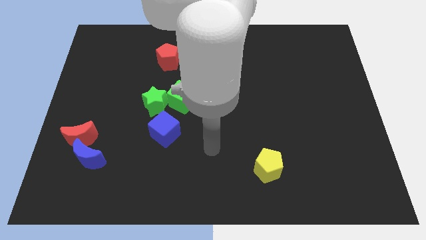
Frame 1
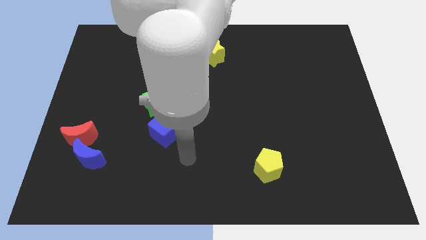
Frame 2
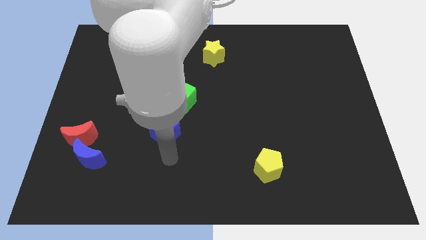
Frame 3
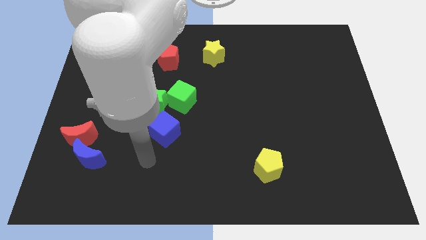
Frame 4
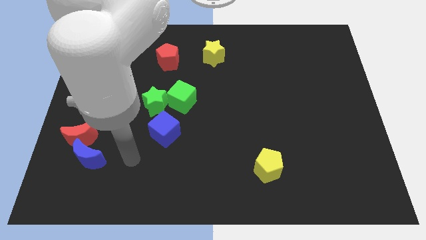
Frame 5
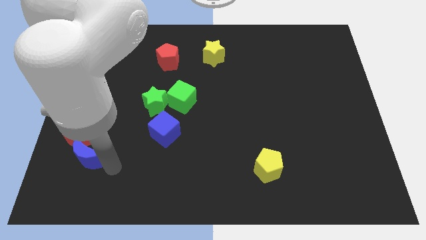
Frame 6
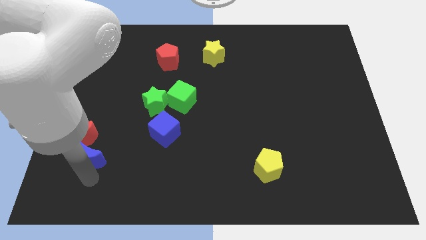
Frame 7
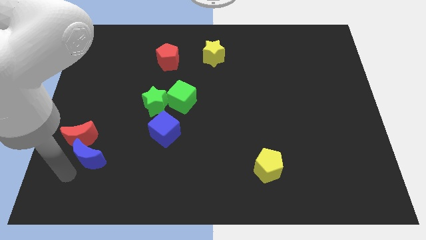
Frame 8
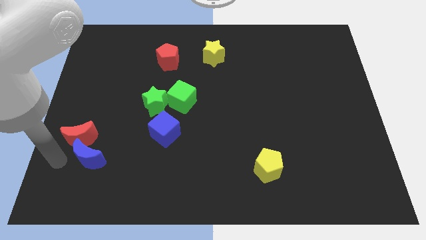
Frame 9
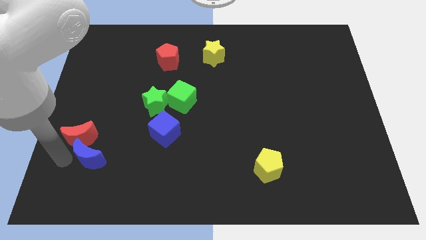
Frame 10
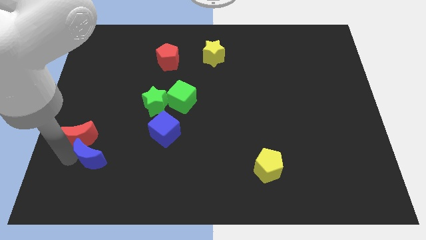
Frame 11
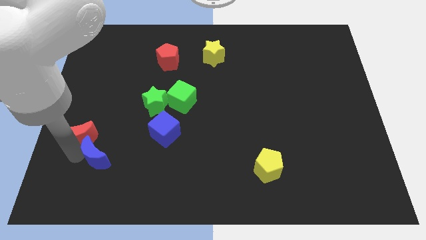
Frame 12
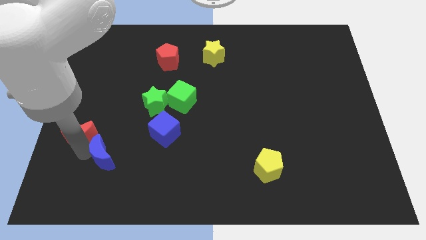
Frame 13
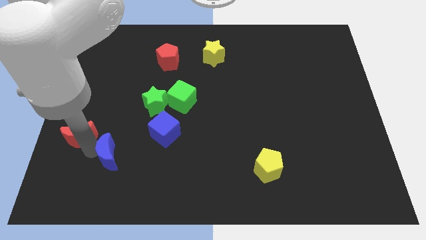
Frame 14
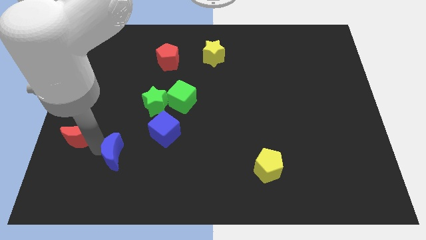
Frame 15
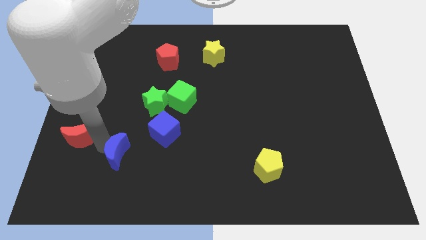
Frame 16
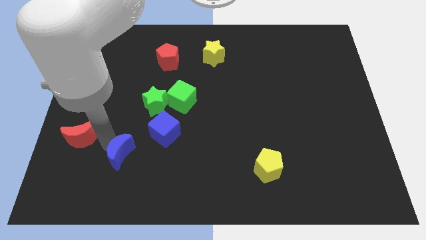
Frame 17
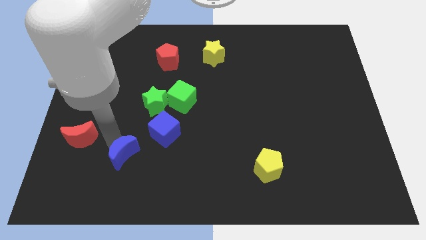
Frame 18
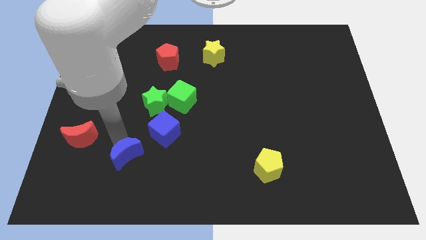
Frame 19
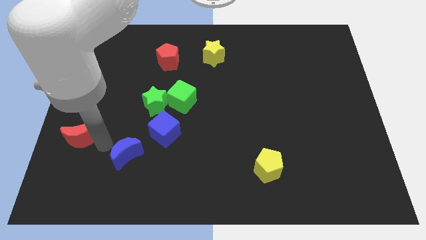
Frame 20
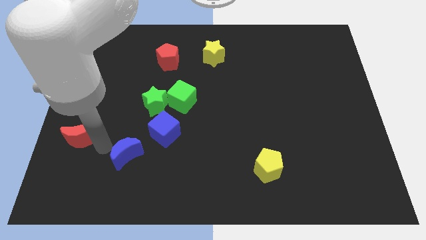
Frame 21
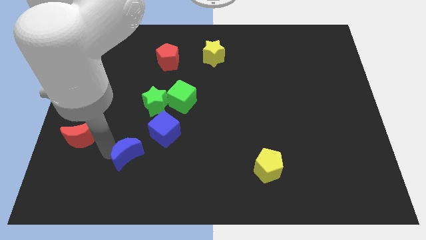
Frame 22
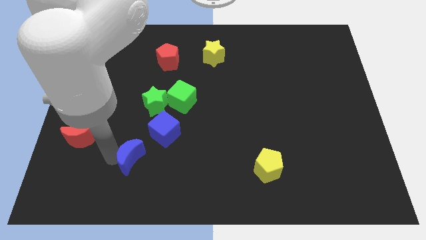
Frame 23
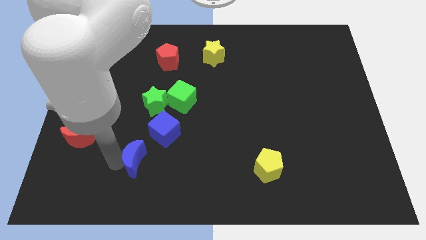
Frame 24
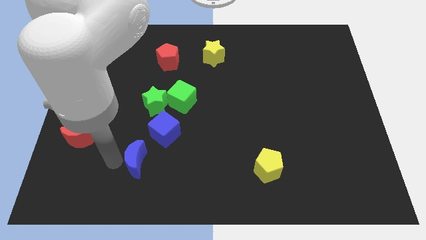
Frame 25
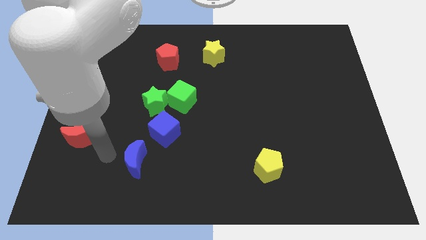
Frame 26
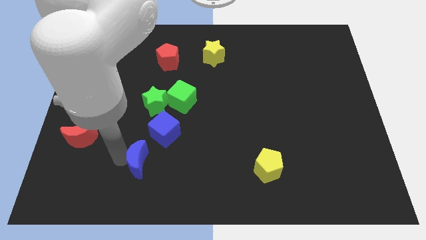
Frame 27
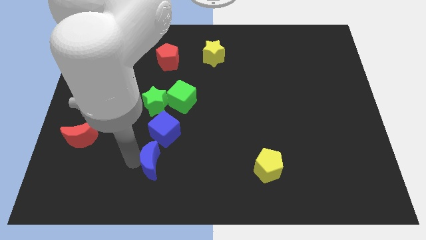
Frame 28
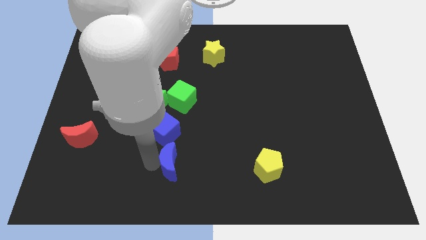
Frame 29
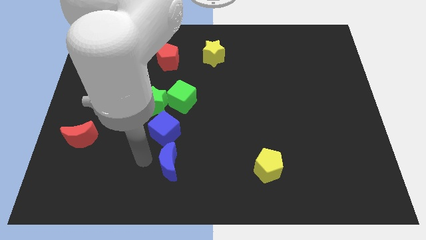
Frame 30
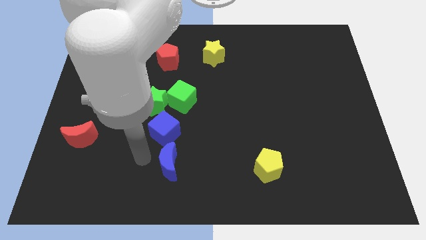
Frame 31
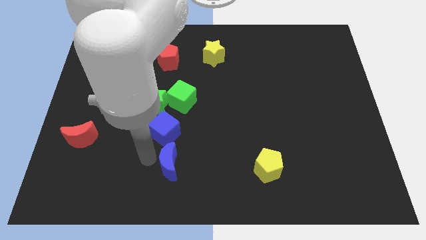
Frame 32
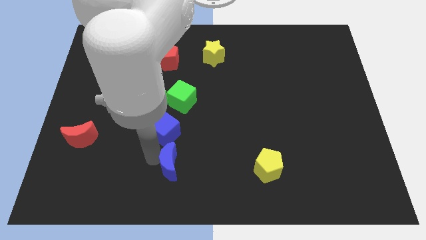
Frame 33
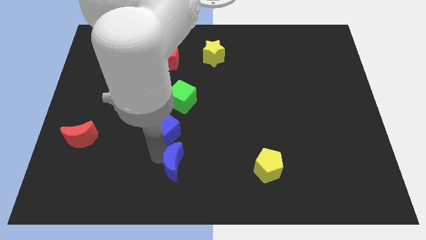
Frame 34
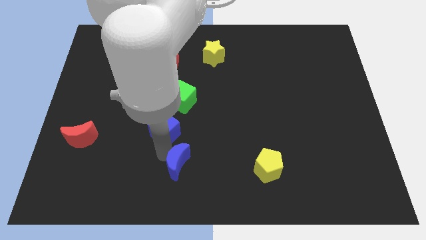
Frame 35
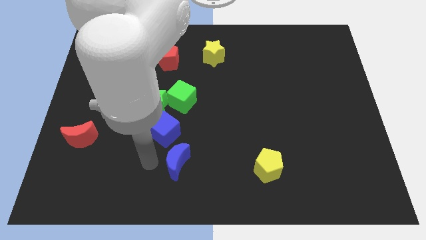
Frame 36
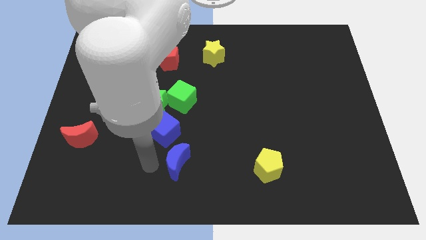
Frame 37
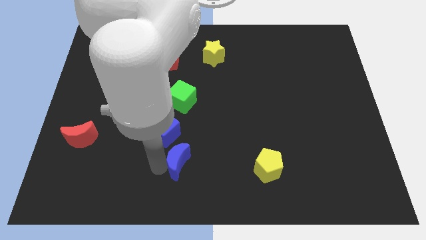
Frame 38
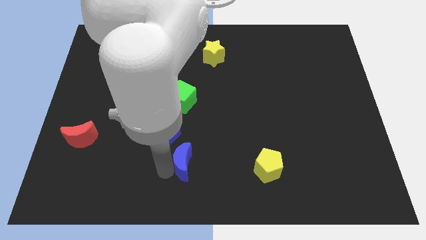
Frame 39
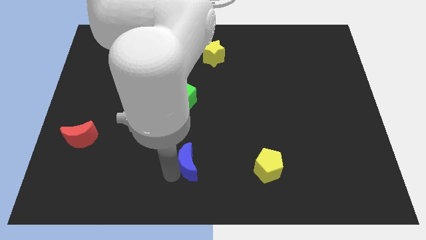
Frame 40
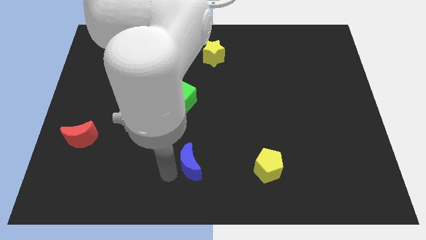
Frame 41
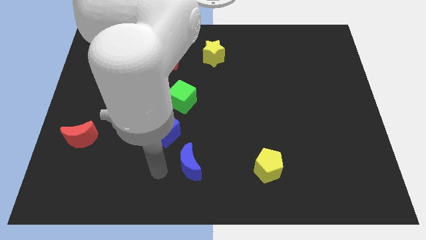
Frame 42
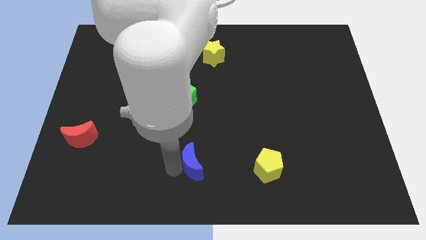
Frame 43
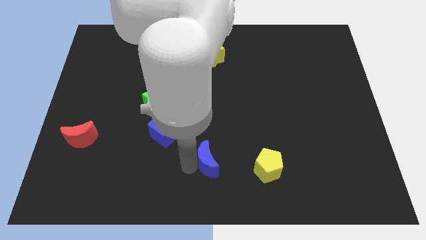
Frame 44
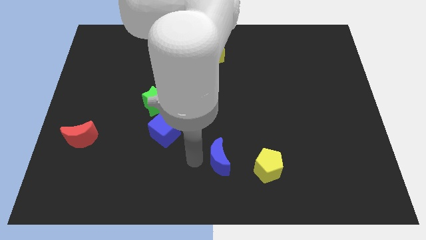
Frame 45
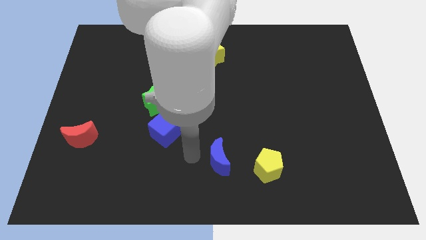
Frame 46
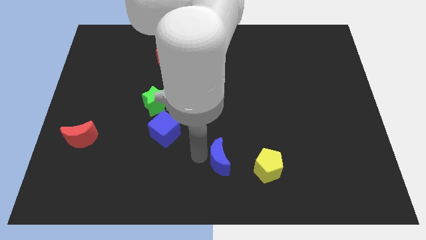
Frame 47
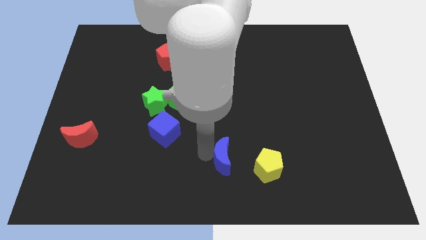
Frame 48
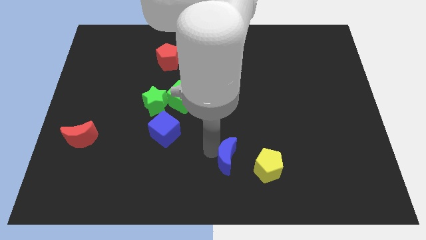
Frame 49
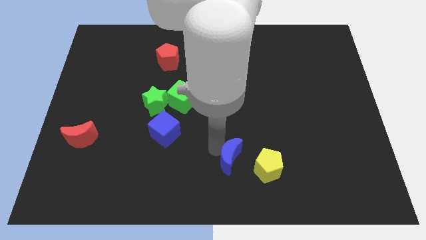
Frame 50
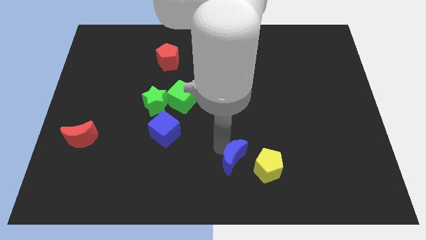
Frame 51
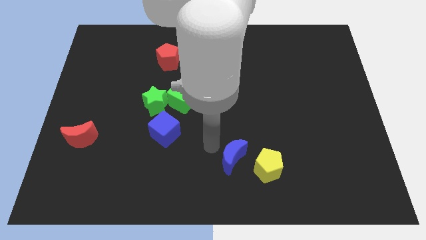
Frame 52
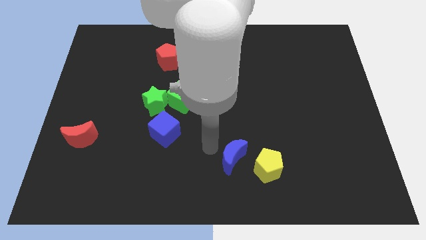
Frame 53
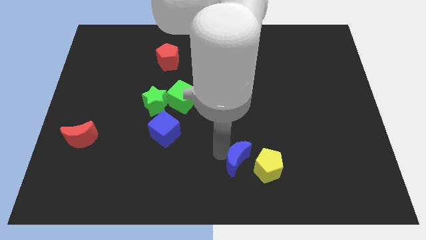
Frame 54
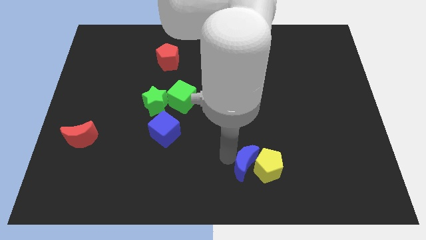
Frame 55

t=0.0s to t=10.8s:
put the blue moon close to the yellow pentagon

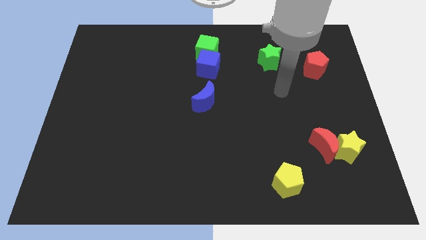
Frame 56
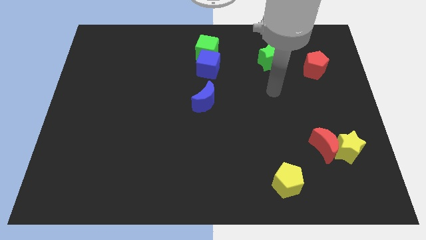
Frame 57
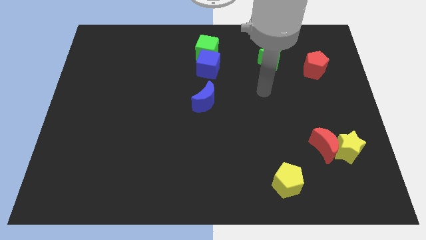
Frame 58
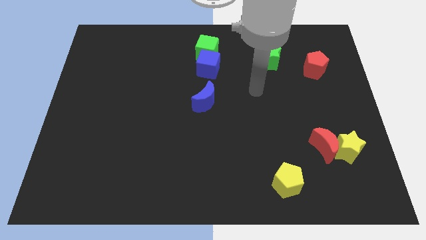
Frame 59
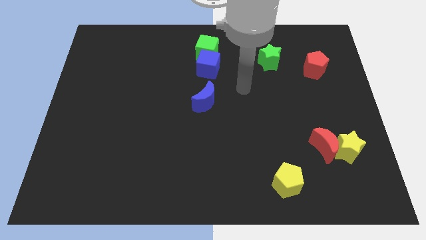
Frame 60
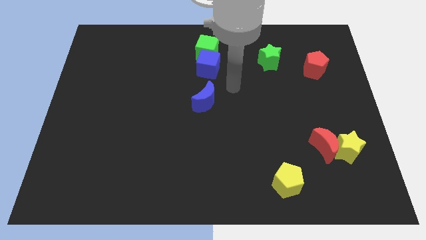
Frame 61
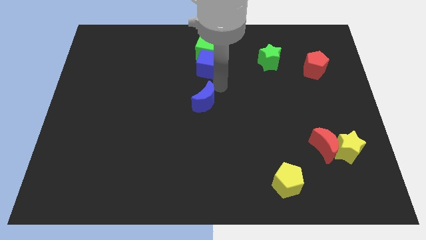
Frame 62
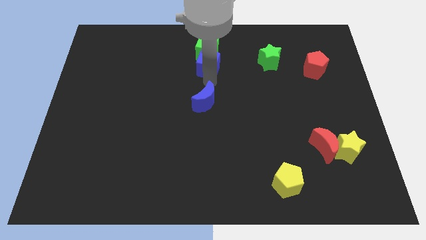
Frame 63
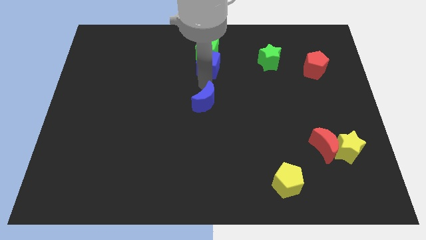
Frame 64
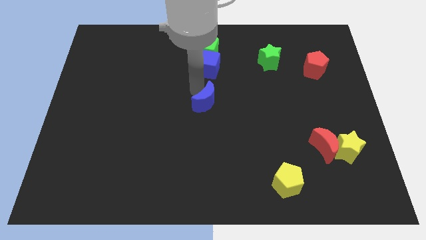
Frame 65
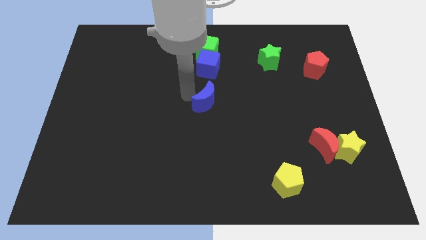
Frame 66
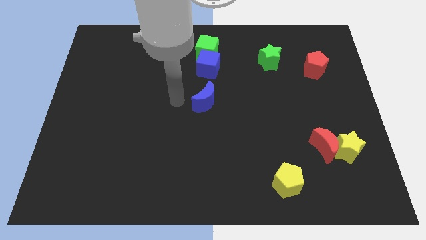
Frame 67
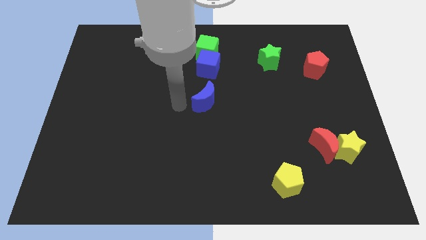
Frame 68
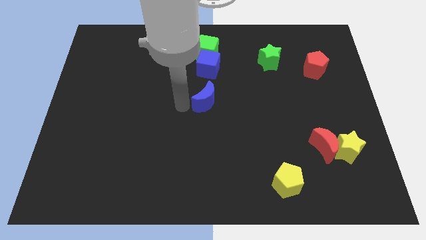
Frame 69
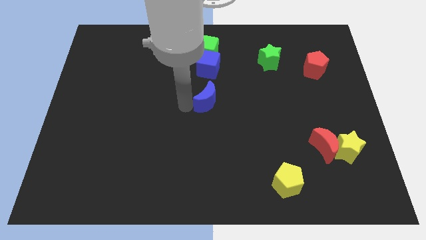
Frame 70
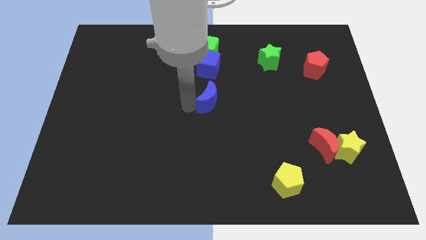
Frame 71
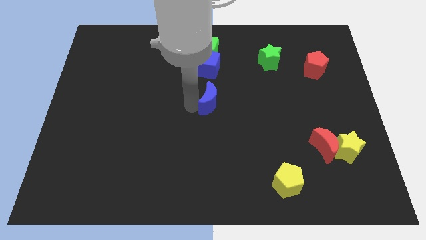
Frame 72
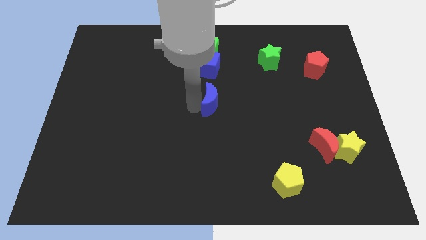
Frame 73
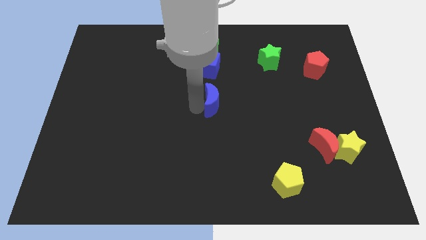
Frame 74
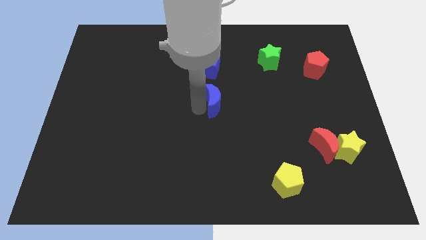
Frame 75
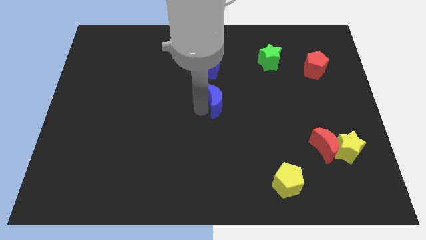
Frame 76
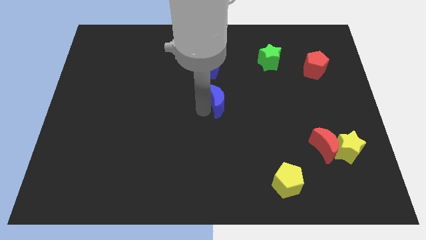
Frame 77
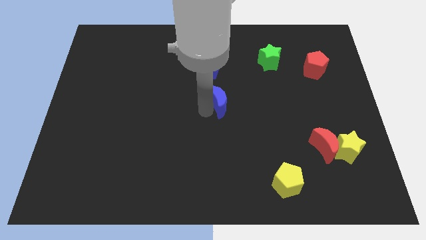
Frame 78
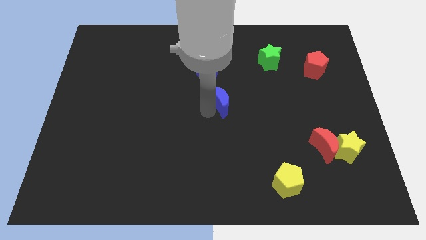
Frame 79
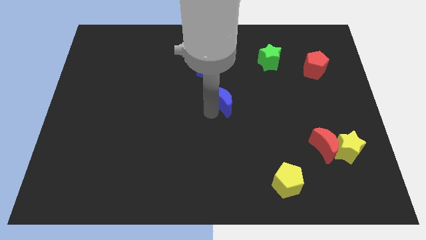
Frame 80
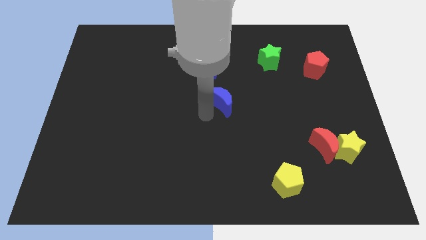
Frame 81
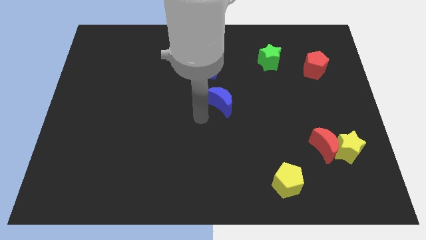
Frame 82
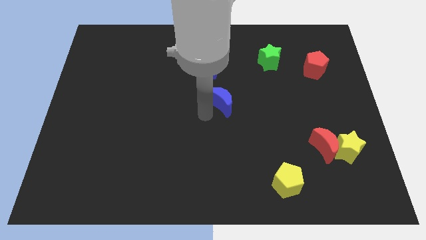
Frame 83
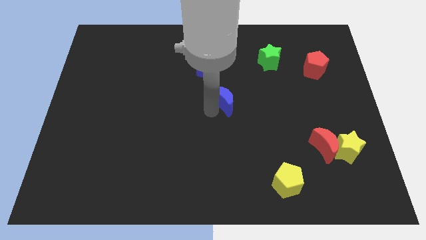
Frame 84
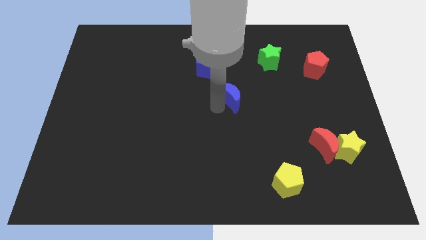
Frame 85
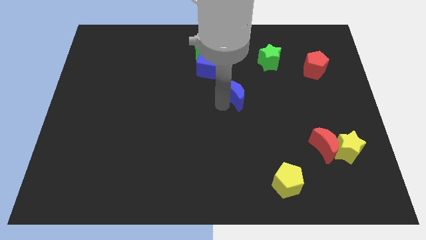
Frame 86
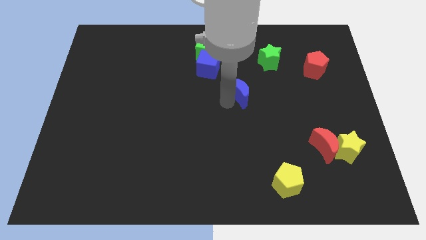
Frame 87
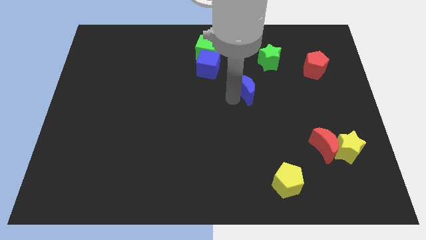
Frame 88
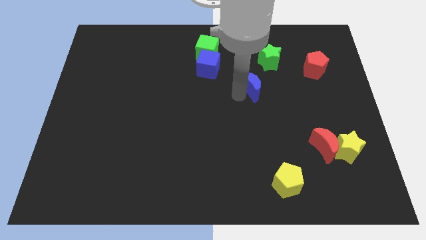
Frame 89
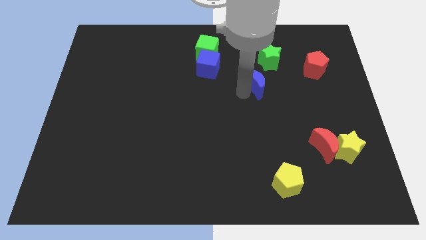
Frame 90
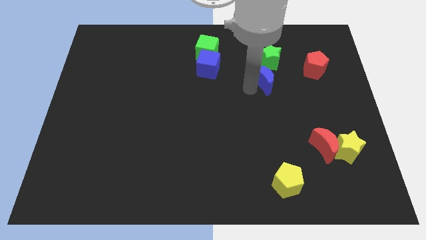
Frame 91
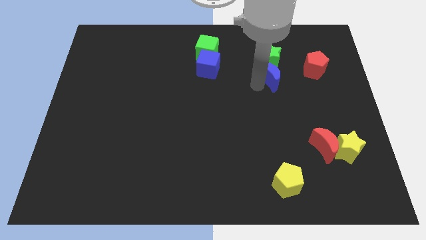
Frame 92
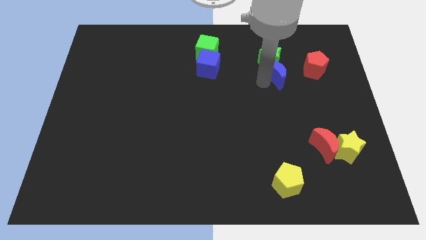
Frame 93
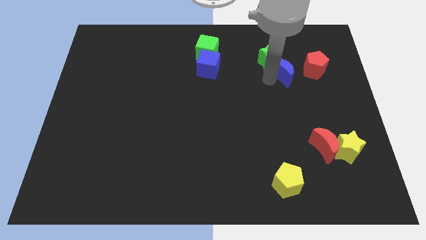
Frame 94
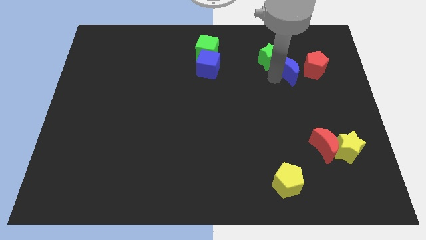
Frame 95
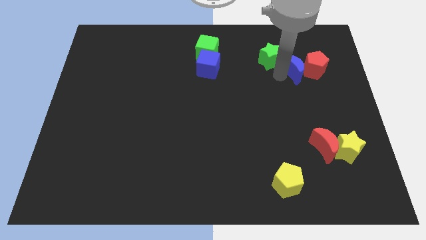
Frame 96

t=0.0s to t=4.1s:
slide the blue moon next to the red pentagon
